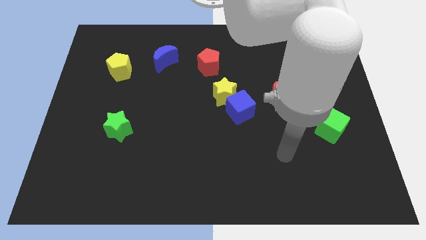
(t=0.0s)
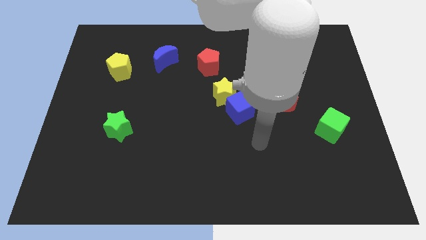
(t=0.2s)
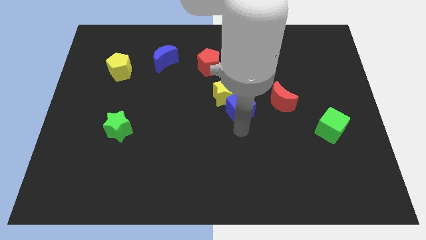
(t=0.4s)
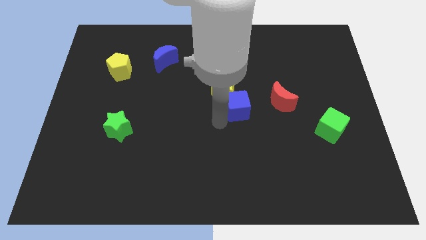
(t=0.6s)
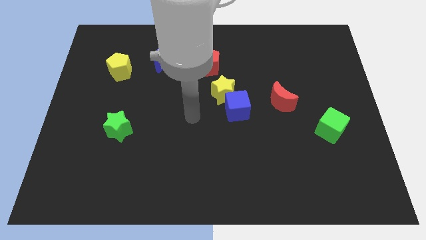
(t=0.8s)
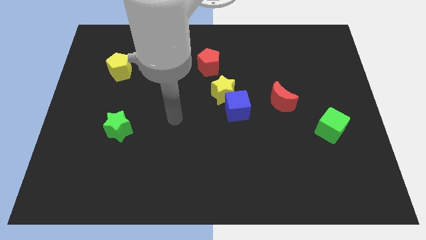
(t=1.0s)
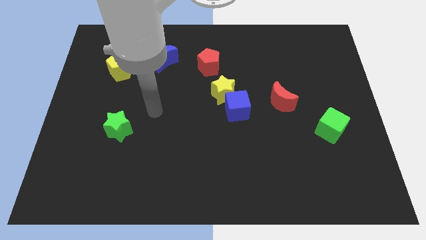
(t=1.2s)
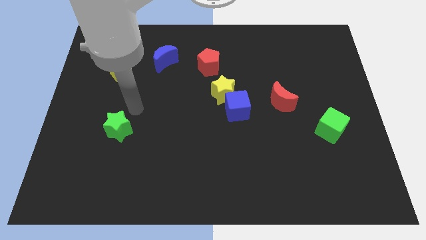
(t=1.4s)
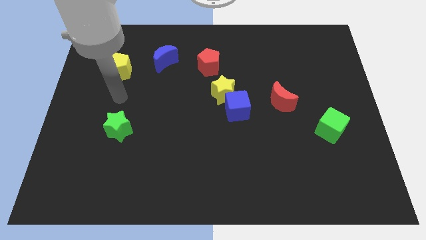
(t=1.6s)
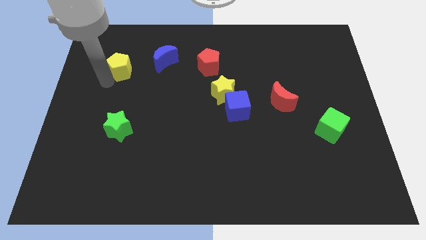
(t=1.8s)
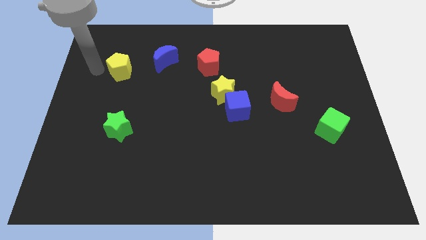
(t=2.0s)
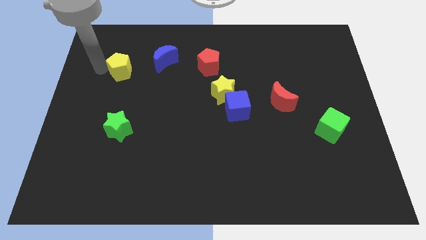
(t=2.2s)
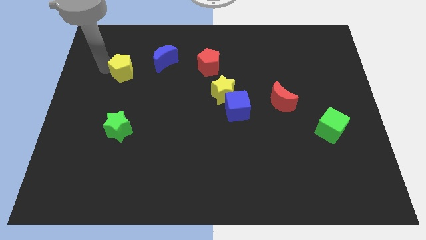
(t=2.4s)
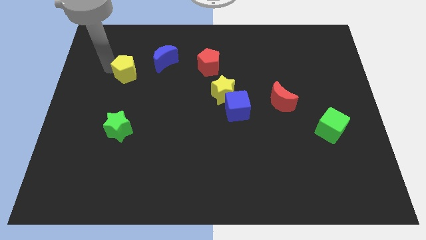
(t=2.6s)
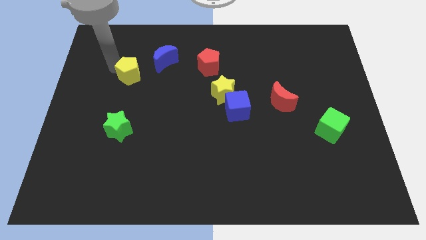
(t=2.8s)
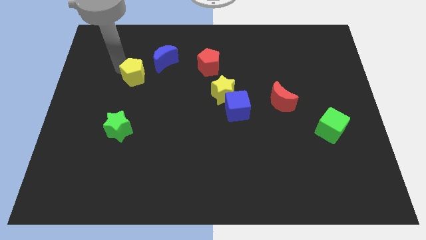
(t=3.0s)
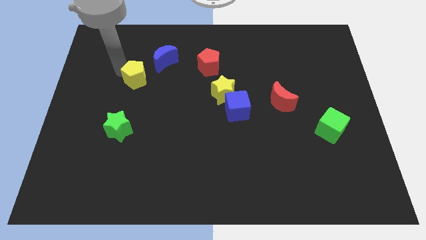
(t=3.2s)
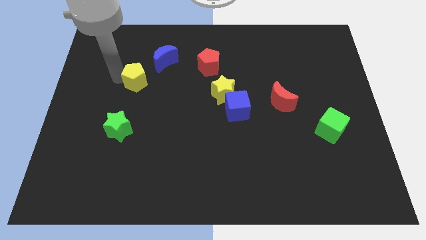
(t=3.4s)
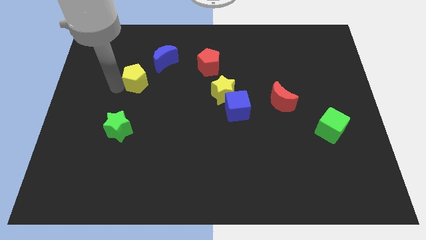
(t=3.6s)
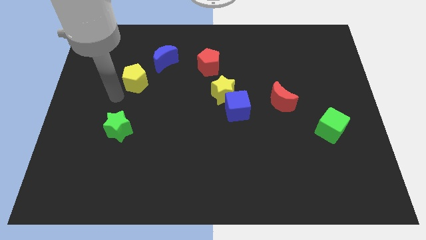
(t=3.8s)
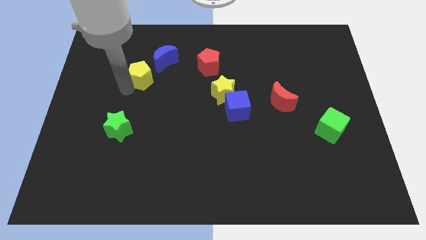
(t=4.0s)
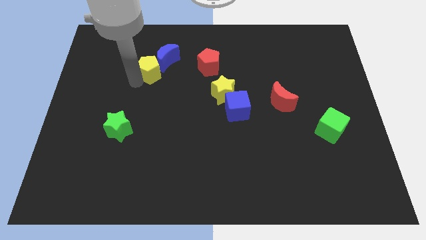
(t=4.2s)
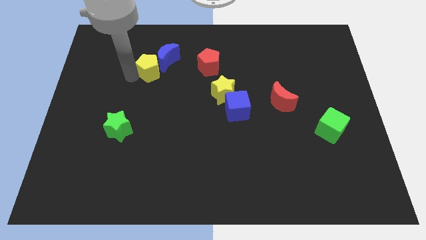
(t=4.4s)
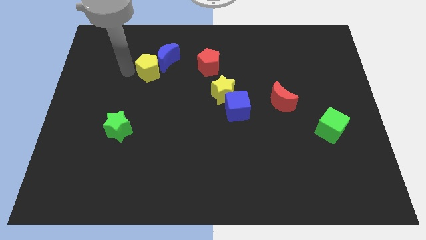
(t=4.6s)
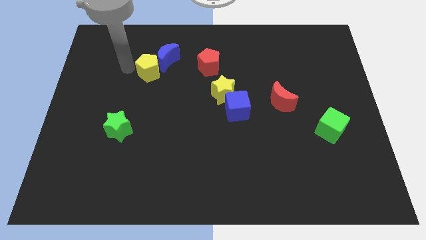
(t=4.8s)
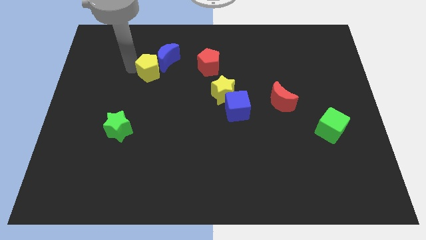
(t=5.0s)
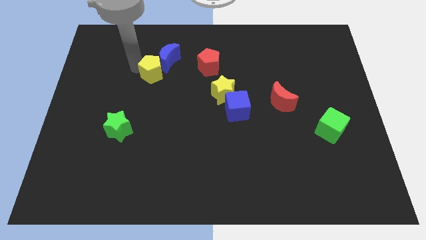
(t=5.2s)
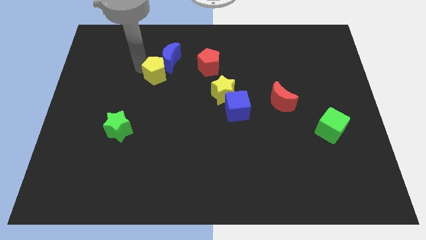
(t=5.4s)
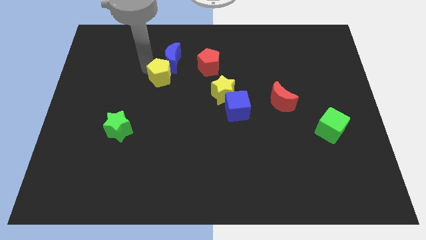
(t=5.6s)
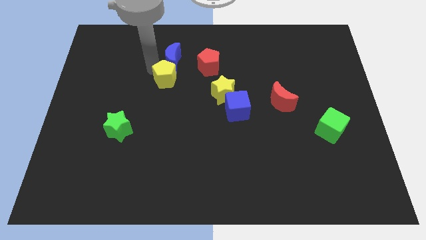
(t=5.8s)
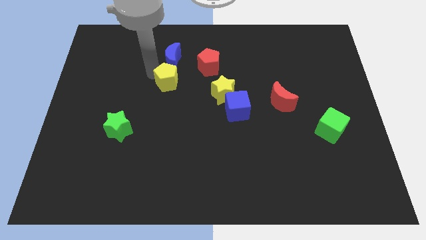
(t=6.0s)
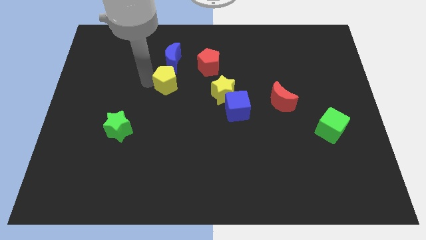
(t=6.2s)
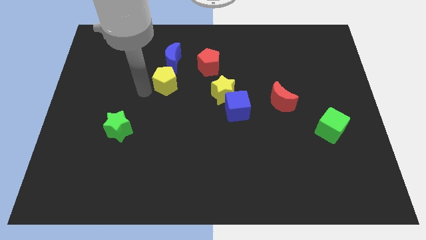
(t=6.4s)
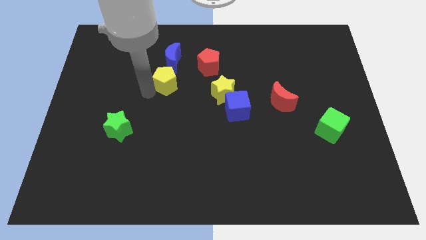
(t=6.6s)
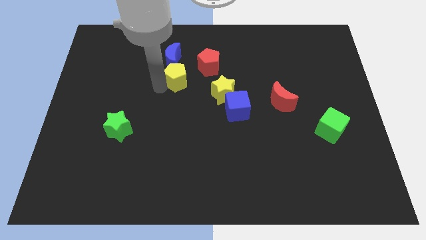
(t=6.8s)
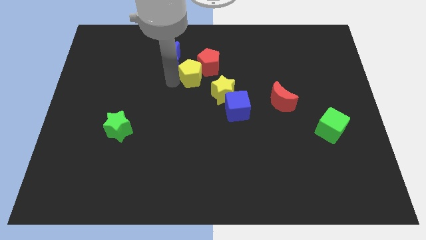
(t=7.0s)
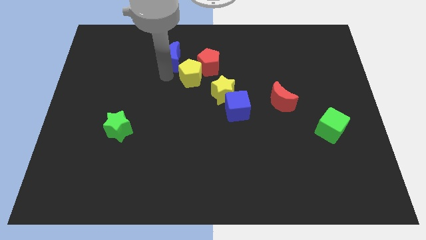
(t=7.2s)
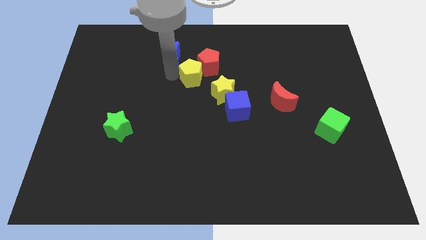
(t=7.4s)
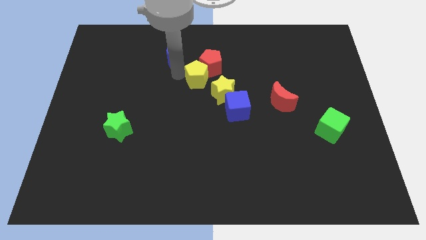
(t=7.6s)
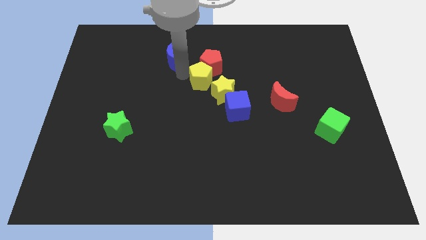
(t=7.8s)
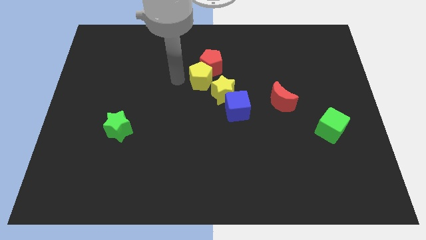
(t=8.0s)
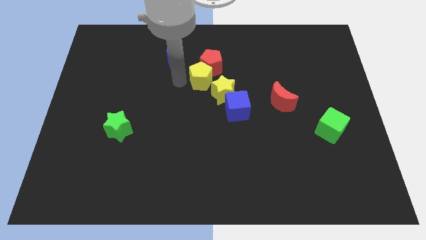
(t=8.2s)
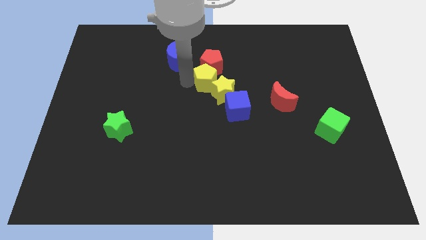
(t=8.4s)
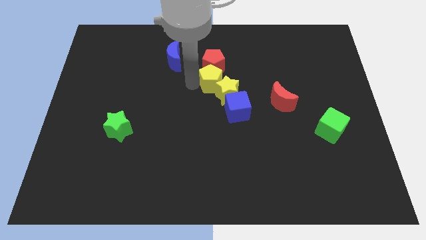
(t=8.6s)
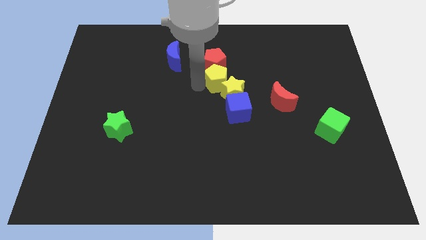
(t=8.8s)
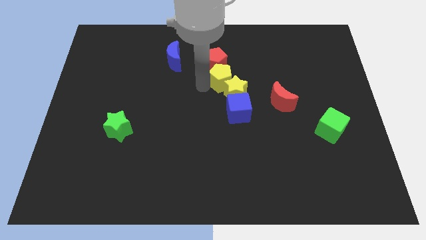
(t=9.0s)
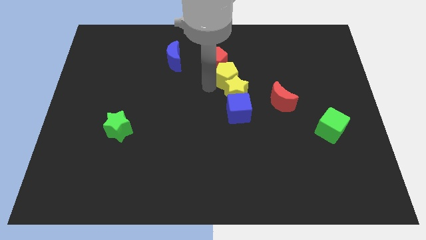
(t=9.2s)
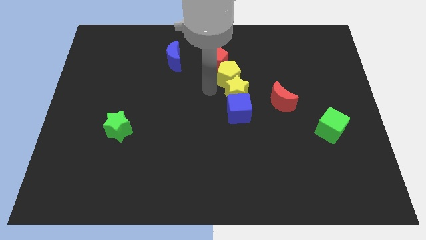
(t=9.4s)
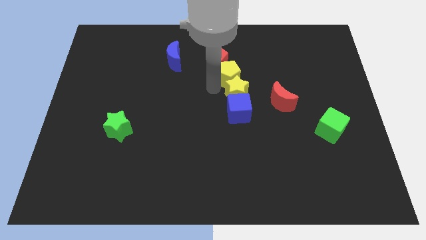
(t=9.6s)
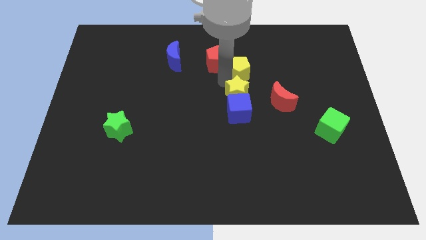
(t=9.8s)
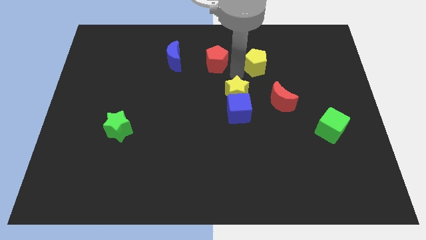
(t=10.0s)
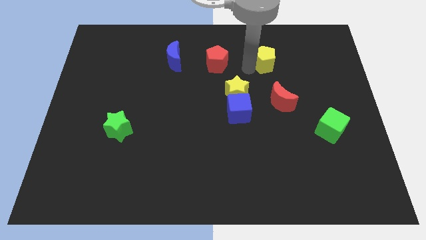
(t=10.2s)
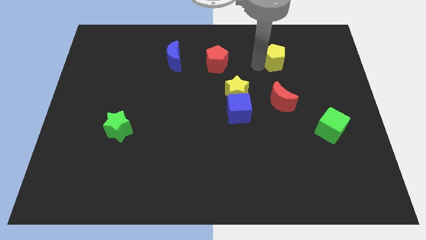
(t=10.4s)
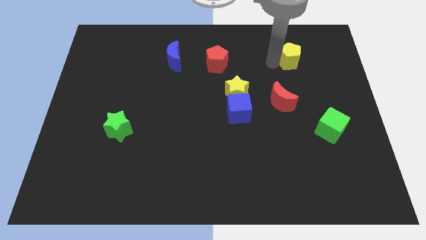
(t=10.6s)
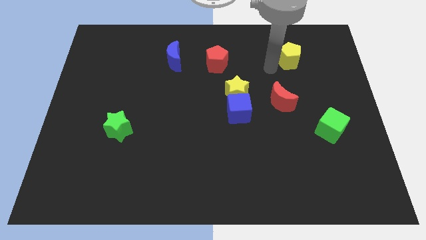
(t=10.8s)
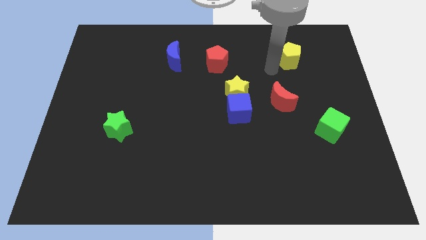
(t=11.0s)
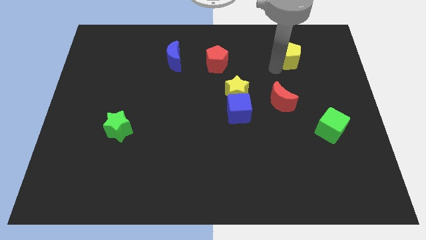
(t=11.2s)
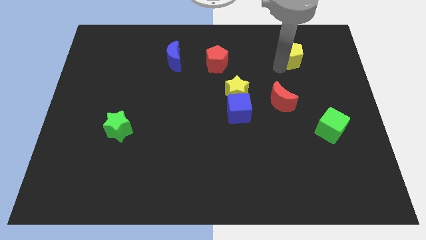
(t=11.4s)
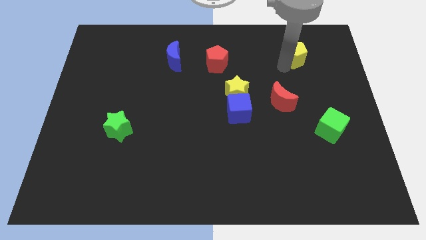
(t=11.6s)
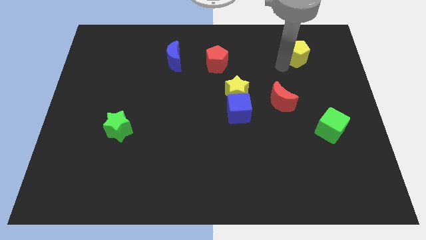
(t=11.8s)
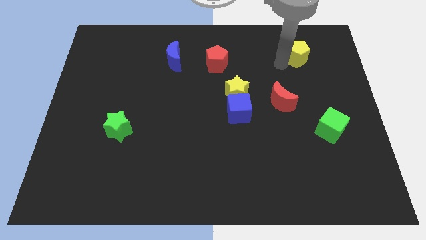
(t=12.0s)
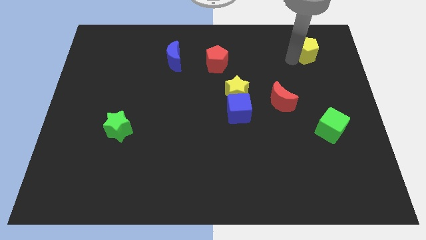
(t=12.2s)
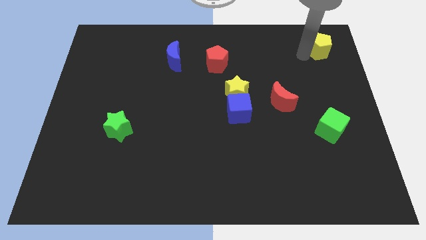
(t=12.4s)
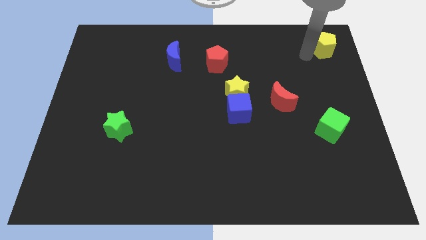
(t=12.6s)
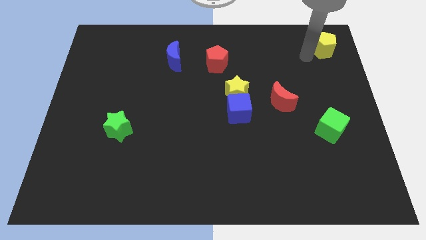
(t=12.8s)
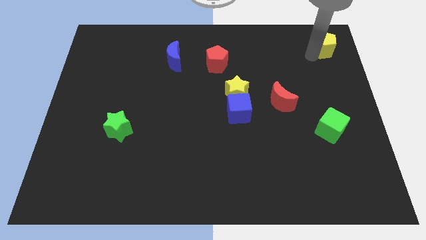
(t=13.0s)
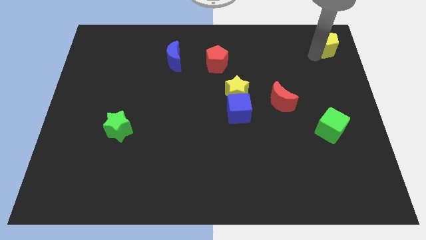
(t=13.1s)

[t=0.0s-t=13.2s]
move the yellow pentagon to the top right corner

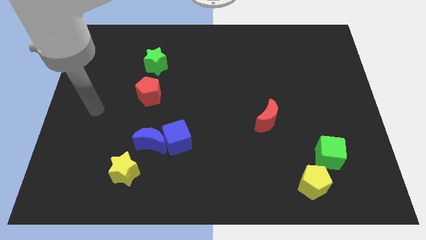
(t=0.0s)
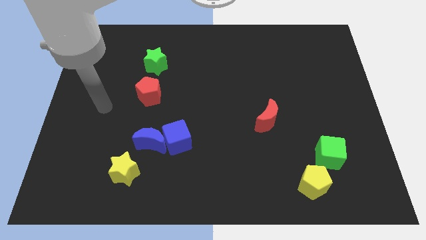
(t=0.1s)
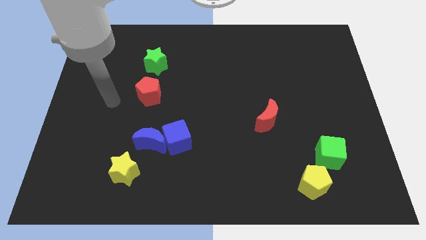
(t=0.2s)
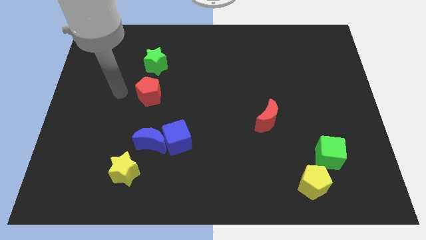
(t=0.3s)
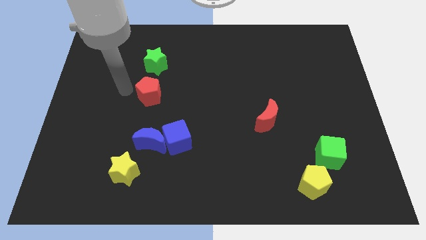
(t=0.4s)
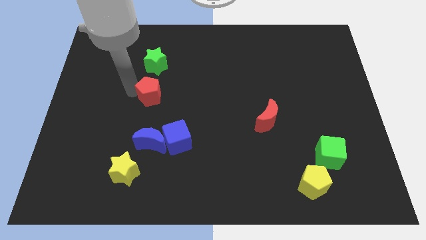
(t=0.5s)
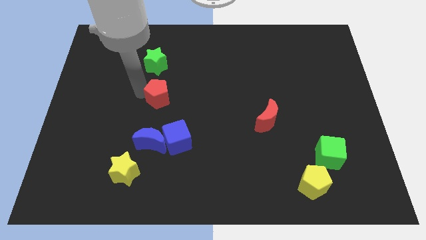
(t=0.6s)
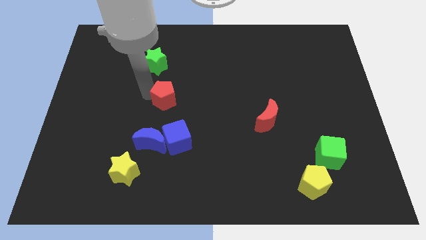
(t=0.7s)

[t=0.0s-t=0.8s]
push the red pentagon to the middle of the board
